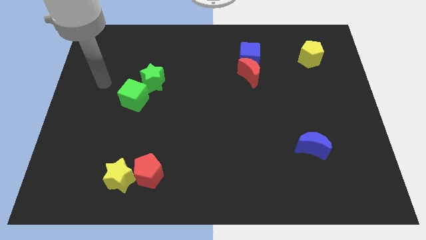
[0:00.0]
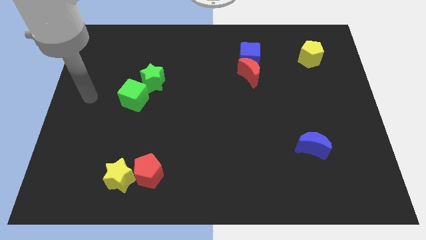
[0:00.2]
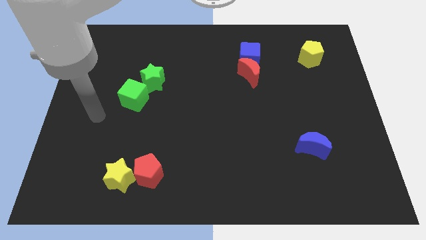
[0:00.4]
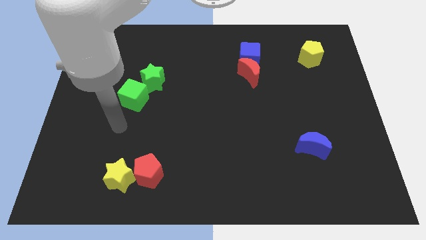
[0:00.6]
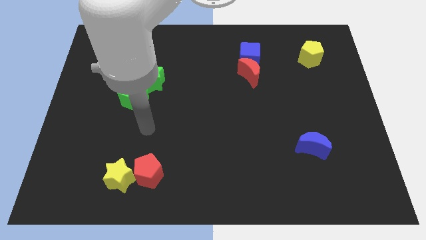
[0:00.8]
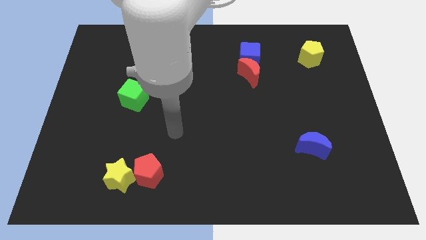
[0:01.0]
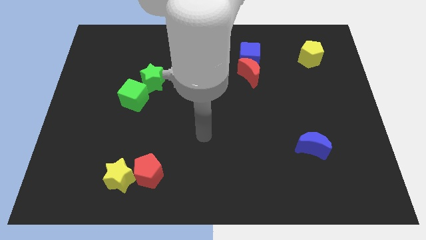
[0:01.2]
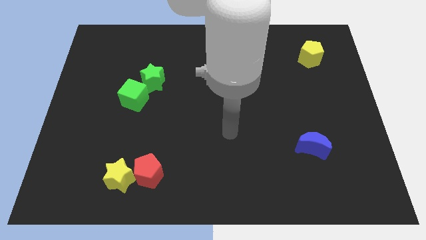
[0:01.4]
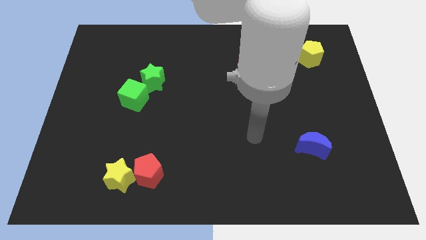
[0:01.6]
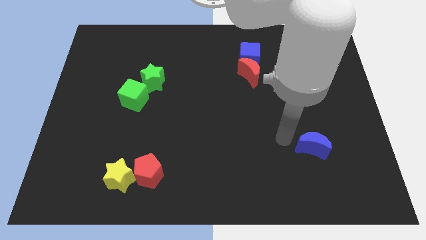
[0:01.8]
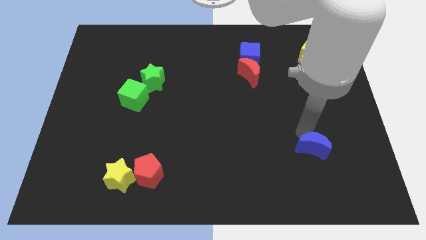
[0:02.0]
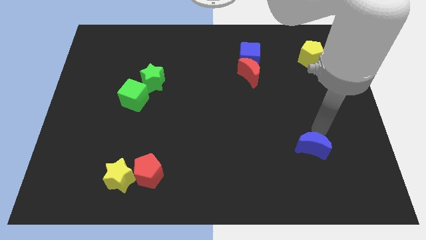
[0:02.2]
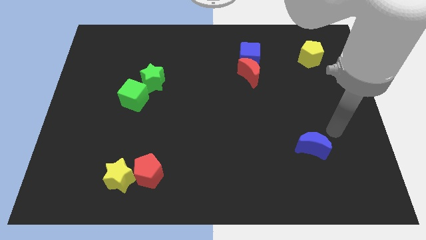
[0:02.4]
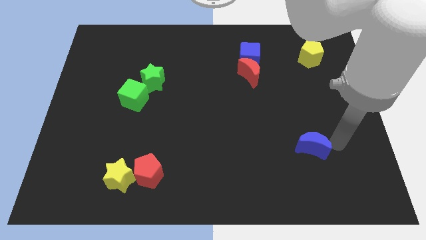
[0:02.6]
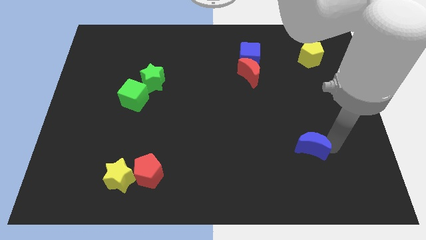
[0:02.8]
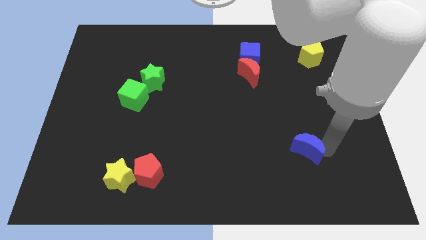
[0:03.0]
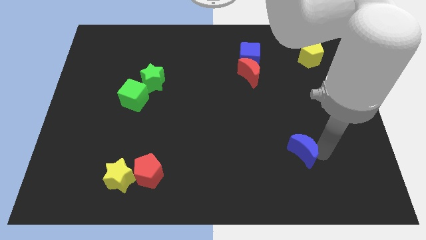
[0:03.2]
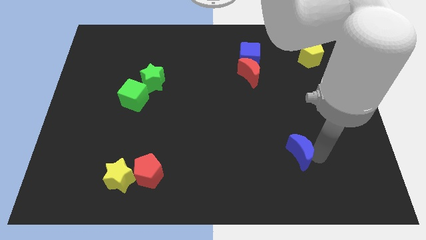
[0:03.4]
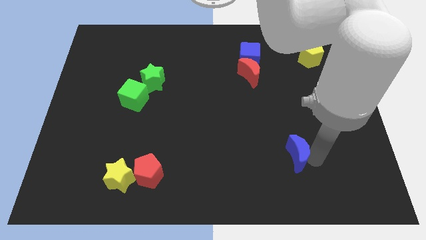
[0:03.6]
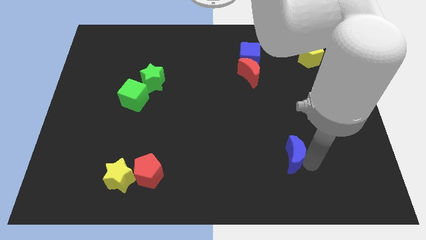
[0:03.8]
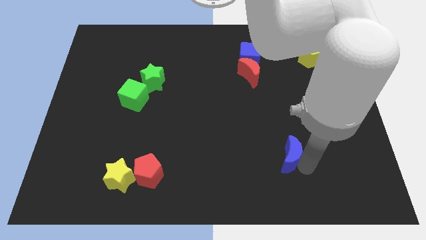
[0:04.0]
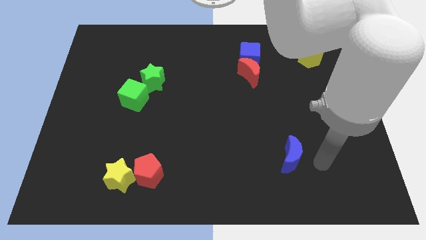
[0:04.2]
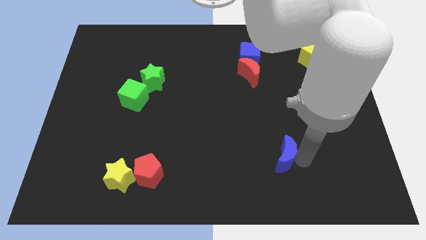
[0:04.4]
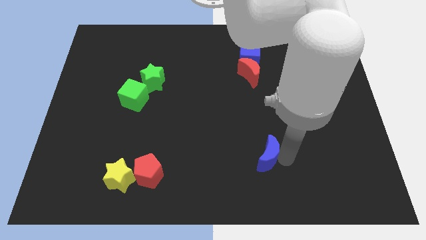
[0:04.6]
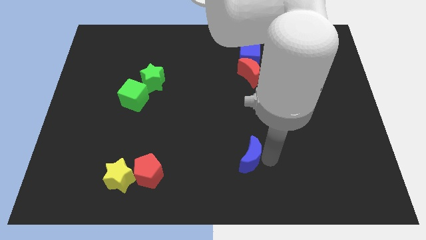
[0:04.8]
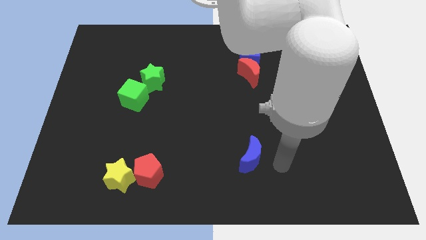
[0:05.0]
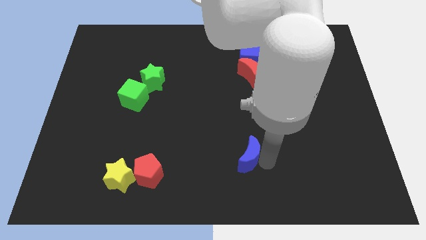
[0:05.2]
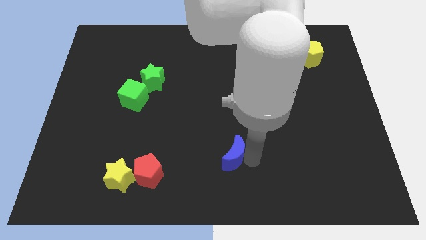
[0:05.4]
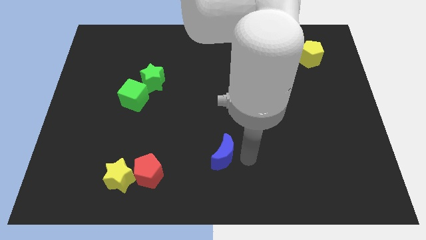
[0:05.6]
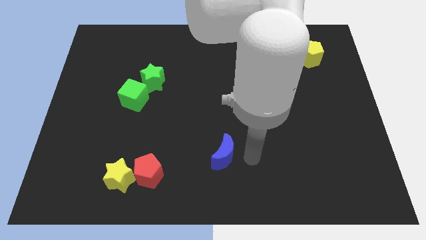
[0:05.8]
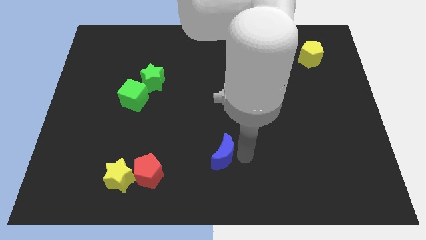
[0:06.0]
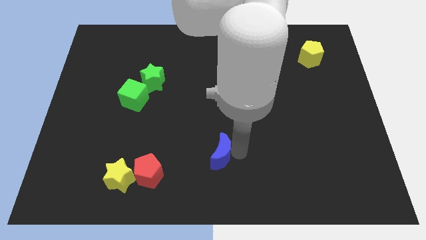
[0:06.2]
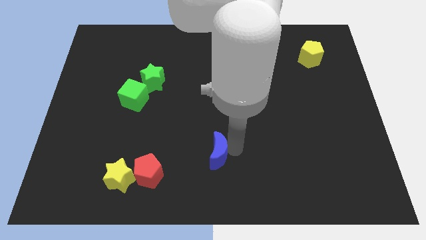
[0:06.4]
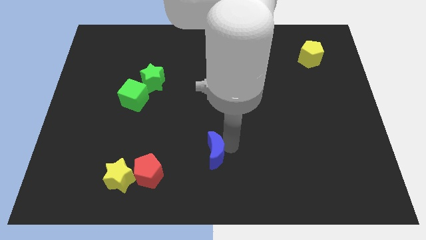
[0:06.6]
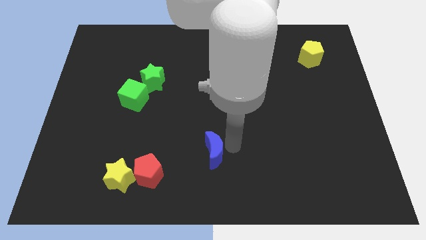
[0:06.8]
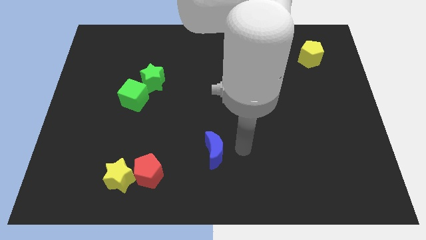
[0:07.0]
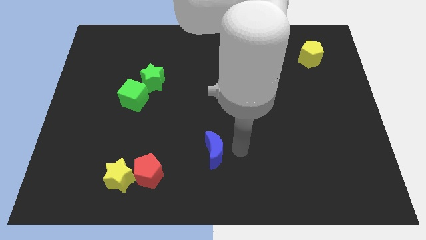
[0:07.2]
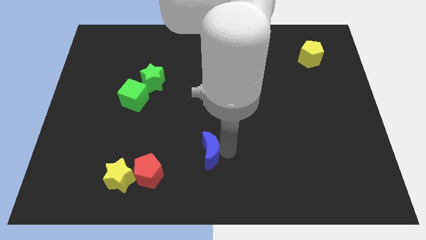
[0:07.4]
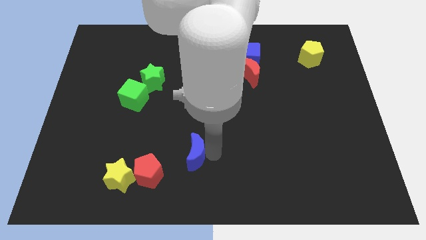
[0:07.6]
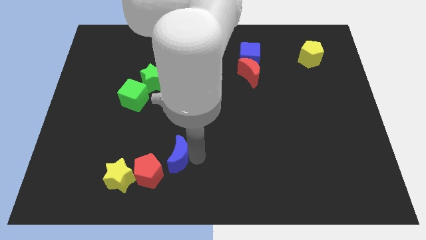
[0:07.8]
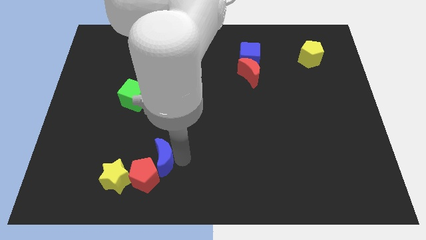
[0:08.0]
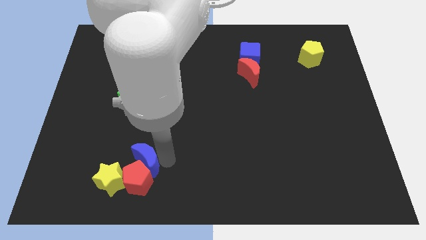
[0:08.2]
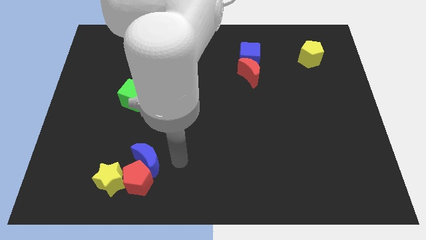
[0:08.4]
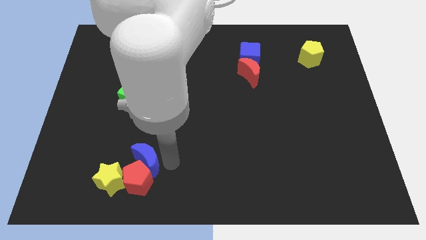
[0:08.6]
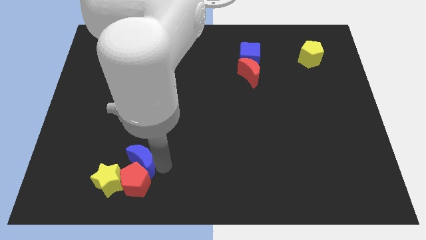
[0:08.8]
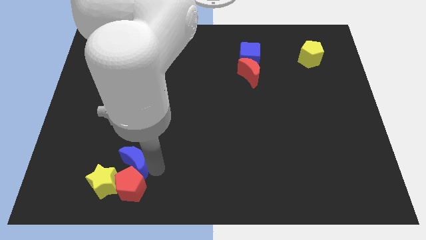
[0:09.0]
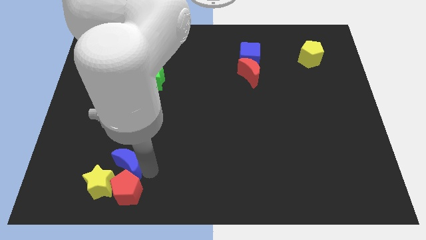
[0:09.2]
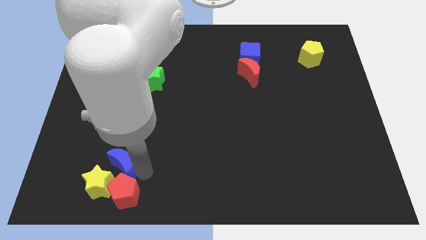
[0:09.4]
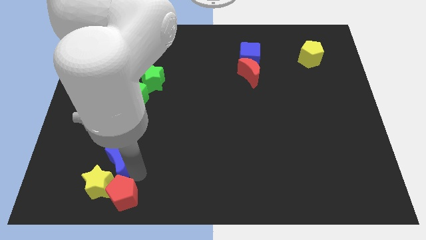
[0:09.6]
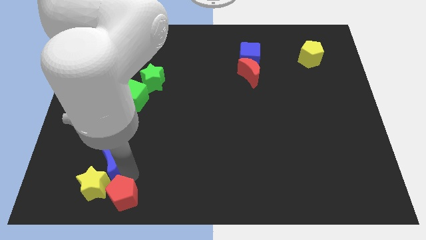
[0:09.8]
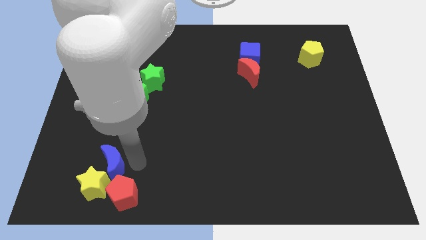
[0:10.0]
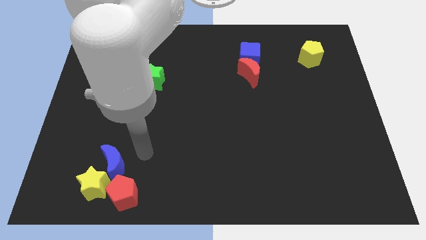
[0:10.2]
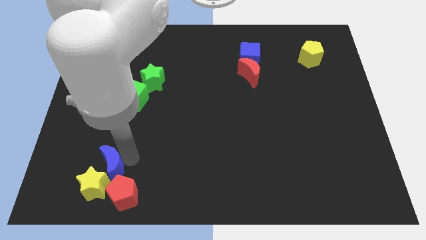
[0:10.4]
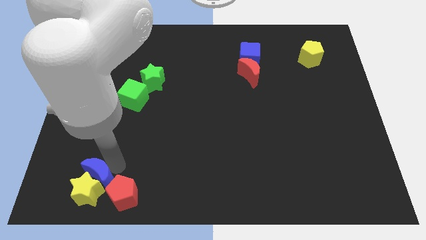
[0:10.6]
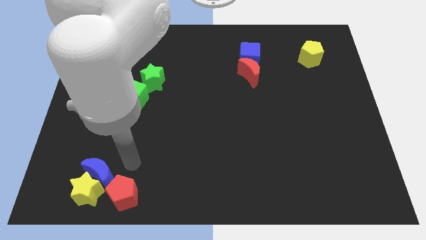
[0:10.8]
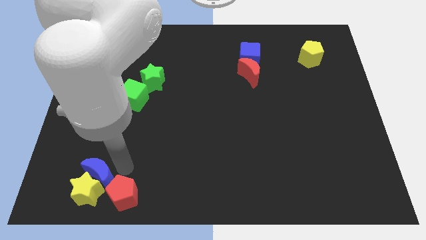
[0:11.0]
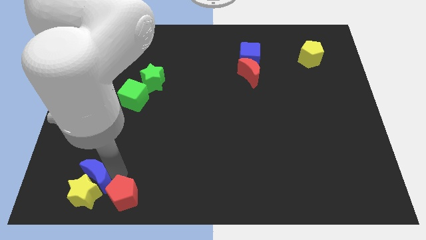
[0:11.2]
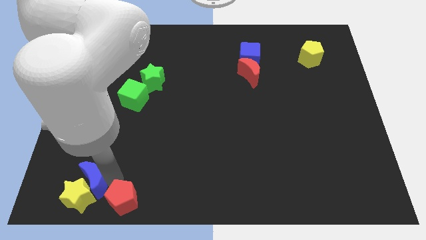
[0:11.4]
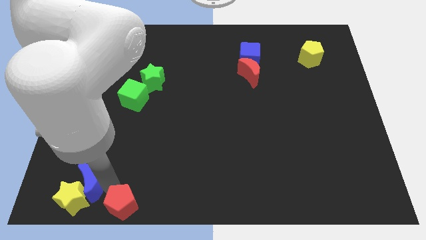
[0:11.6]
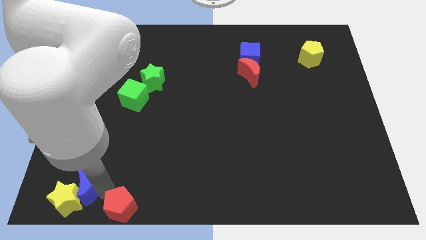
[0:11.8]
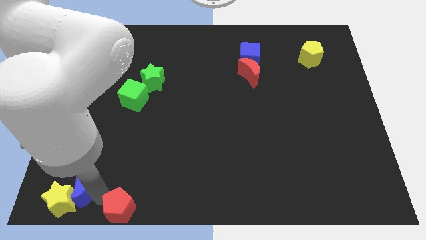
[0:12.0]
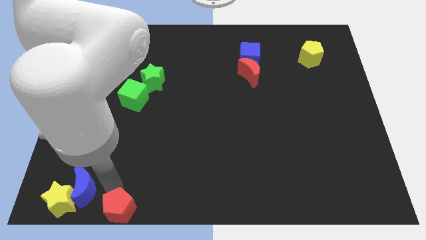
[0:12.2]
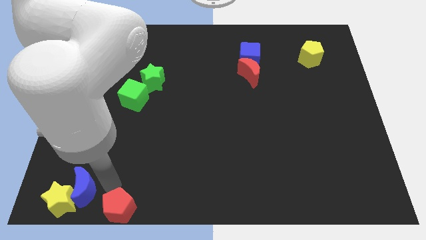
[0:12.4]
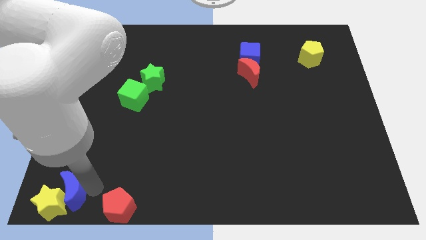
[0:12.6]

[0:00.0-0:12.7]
put the blue moon to the bottom left corner
